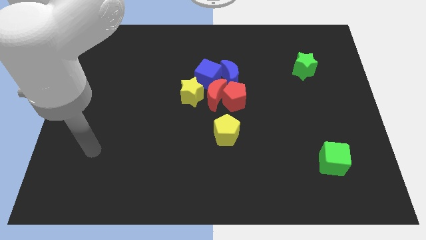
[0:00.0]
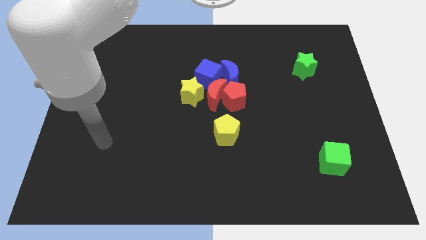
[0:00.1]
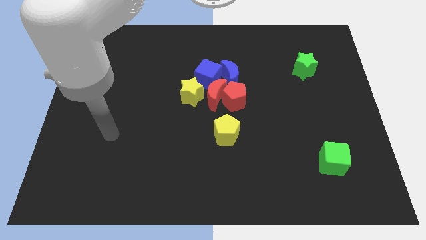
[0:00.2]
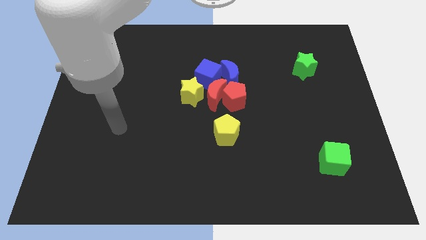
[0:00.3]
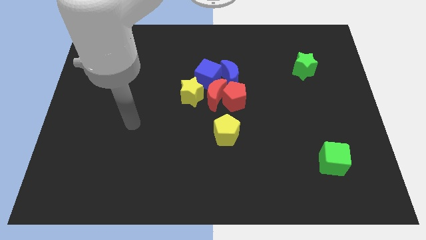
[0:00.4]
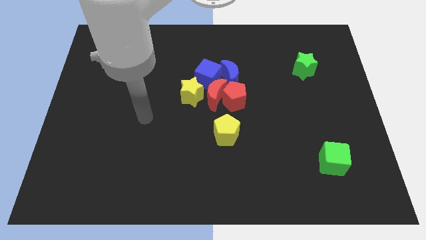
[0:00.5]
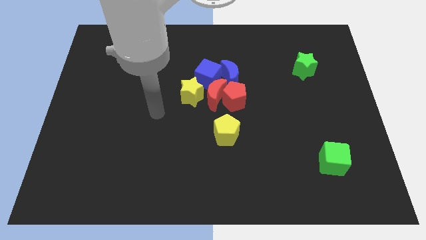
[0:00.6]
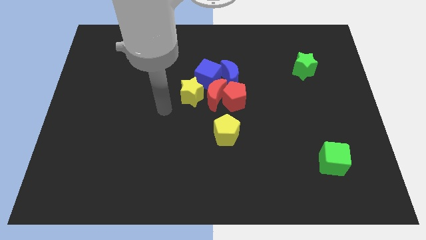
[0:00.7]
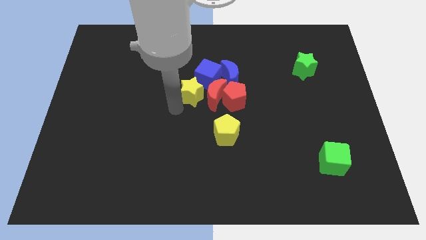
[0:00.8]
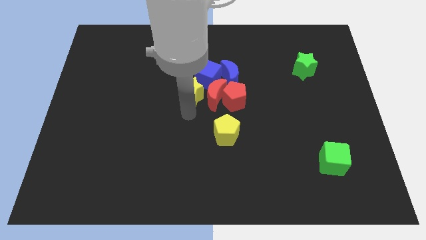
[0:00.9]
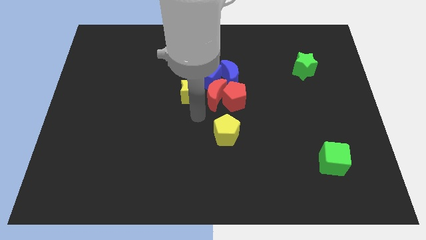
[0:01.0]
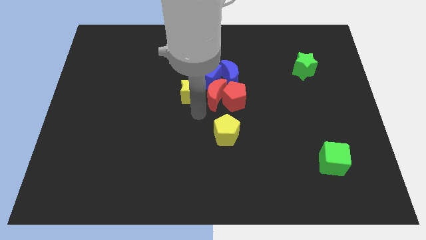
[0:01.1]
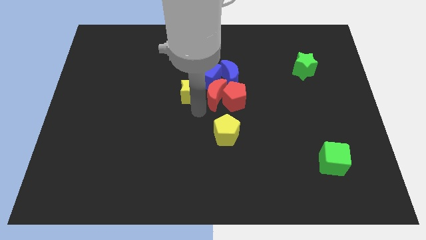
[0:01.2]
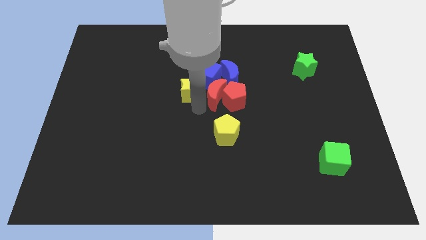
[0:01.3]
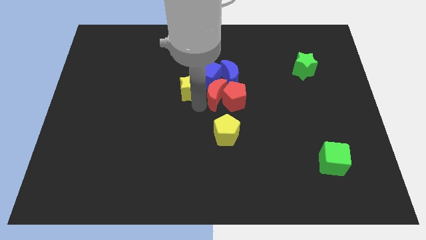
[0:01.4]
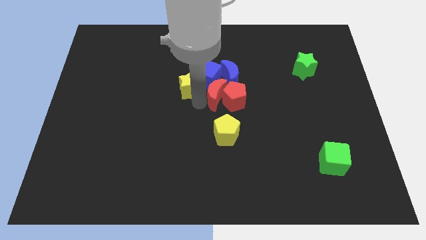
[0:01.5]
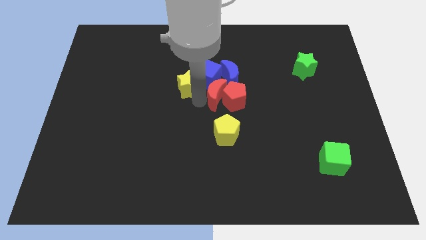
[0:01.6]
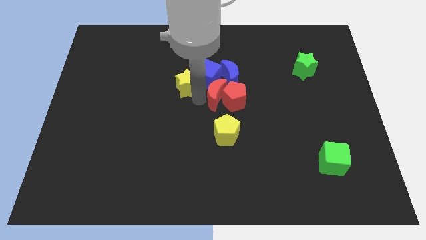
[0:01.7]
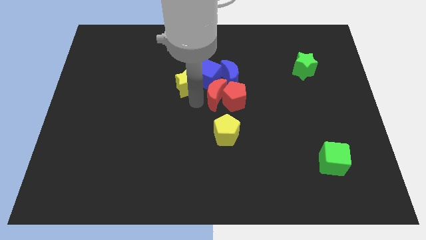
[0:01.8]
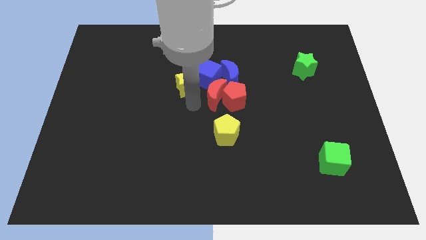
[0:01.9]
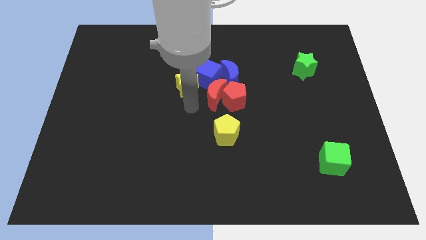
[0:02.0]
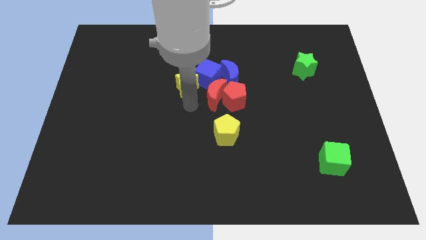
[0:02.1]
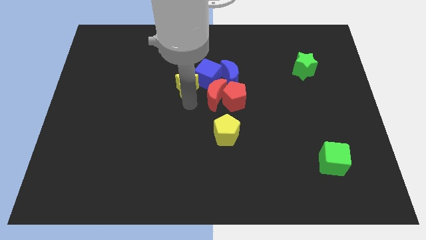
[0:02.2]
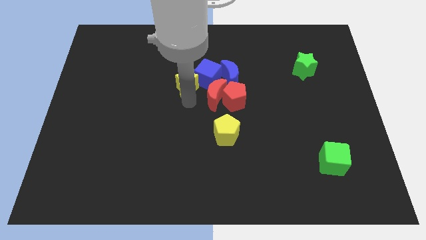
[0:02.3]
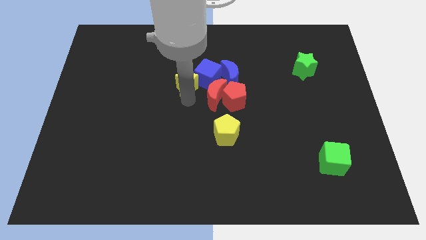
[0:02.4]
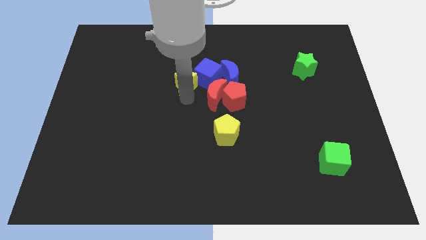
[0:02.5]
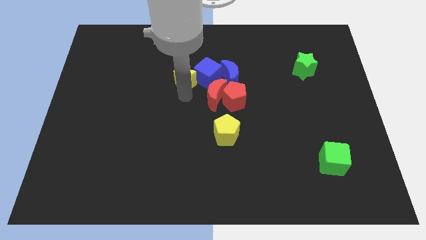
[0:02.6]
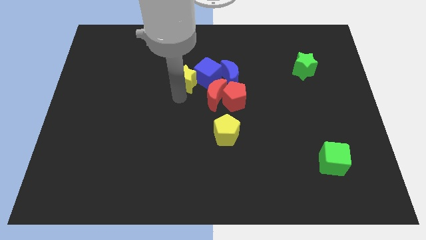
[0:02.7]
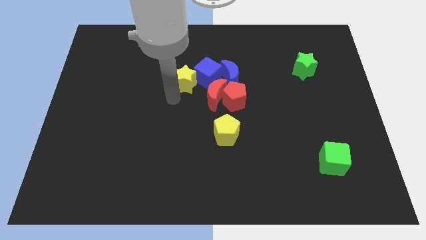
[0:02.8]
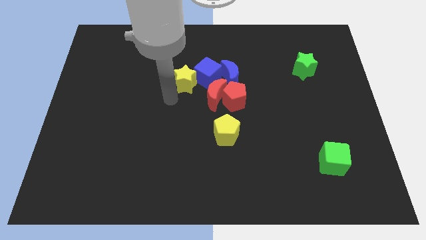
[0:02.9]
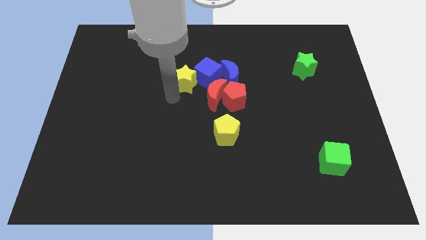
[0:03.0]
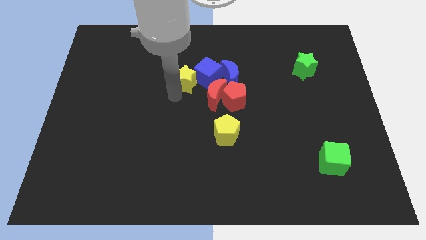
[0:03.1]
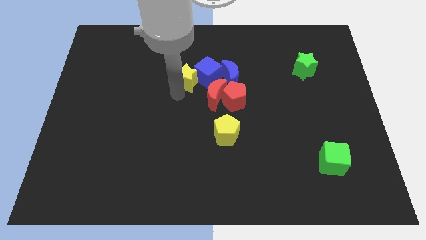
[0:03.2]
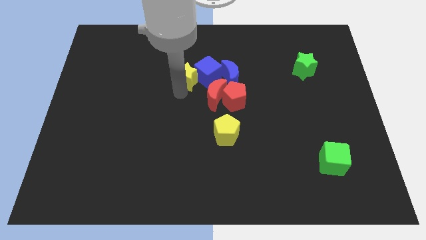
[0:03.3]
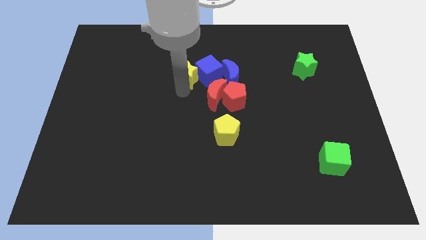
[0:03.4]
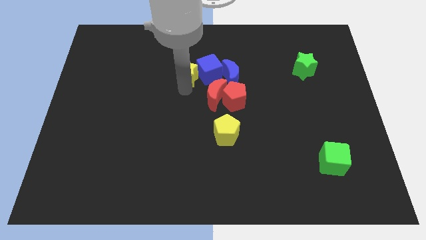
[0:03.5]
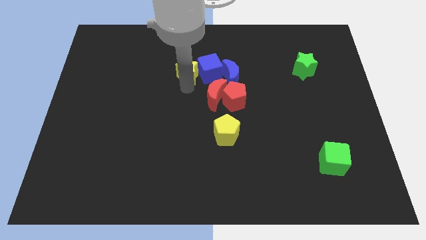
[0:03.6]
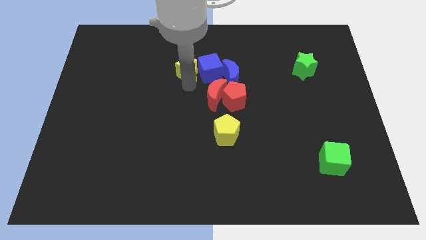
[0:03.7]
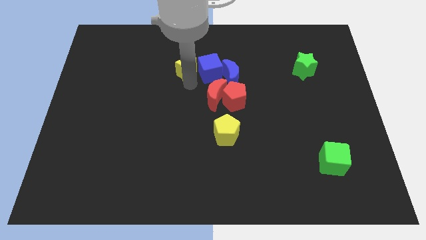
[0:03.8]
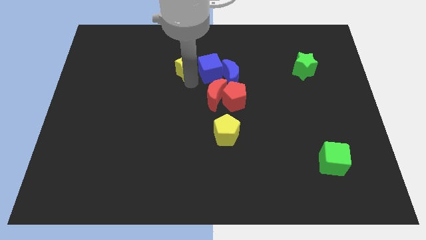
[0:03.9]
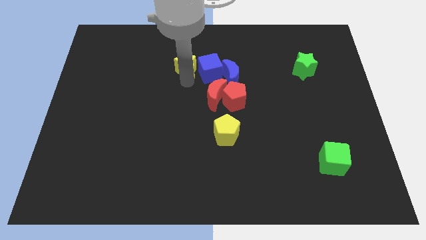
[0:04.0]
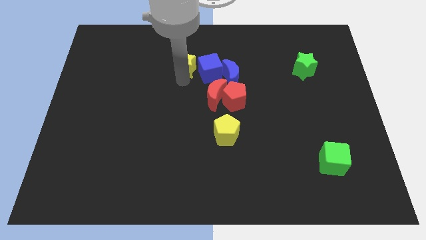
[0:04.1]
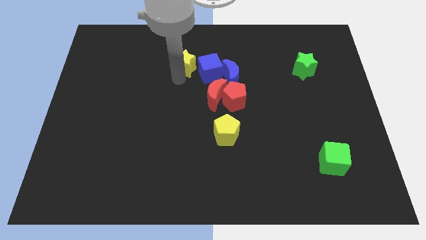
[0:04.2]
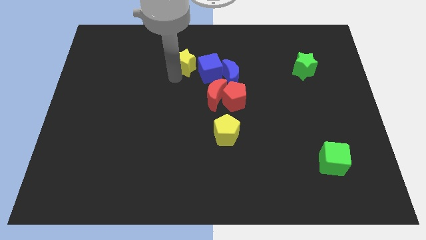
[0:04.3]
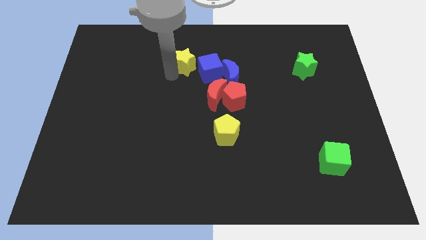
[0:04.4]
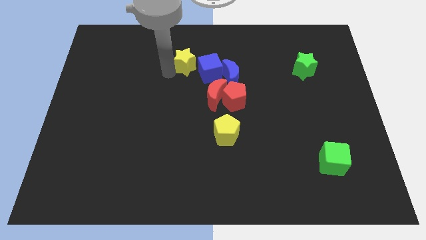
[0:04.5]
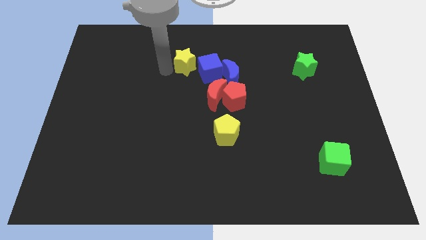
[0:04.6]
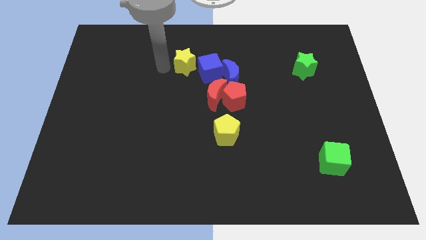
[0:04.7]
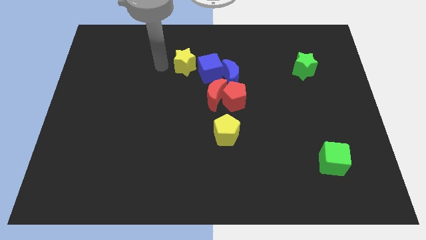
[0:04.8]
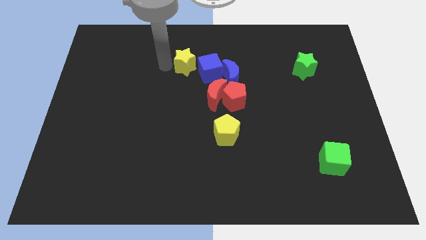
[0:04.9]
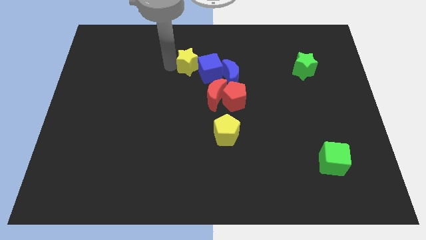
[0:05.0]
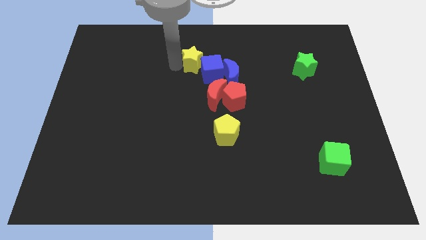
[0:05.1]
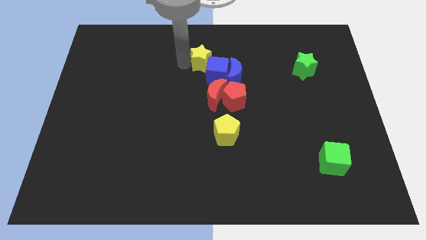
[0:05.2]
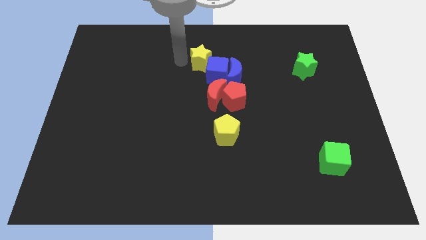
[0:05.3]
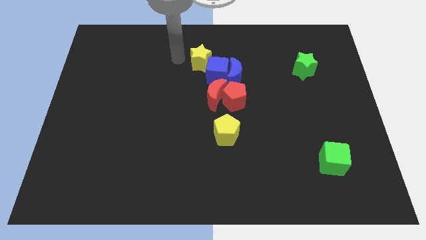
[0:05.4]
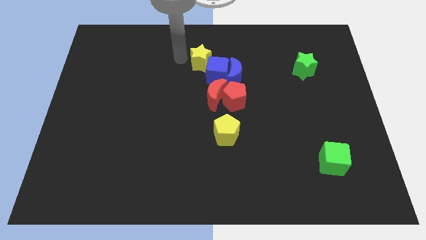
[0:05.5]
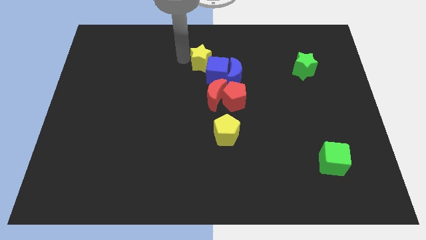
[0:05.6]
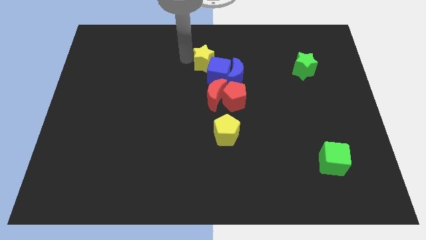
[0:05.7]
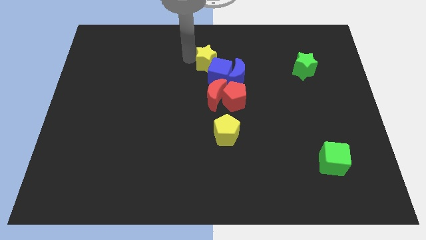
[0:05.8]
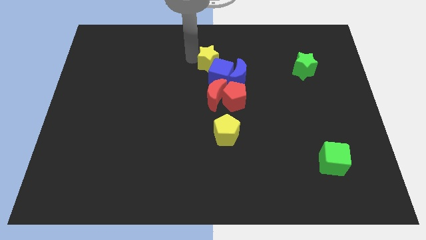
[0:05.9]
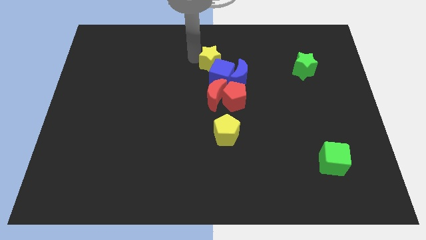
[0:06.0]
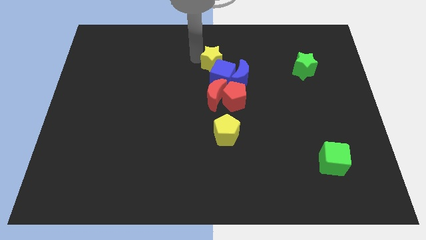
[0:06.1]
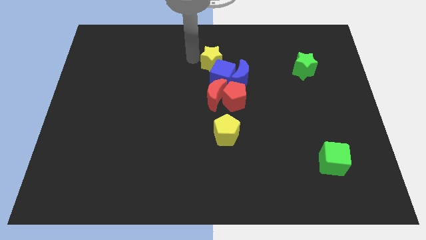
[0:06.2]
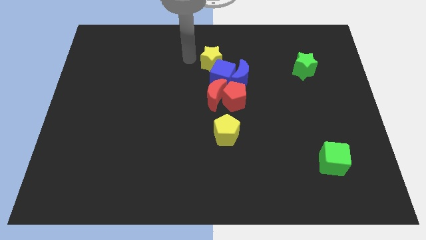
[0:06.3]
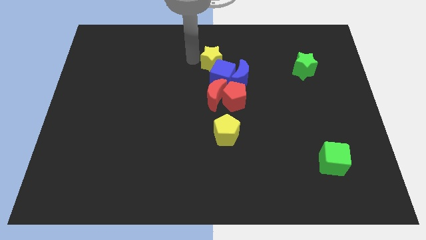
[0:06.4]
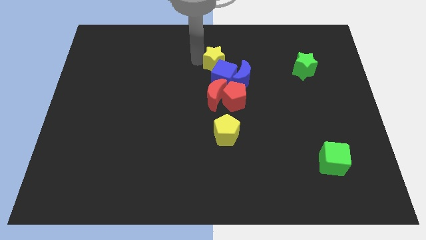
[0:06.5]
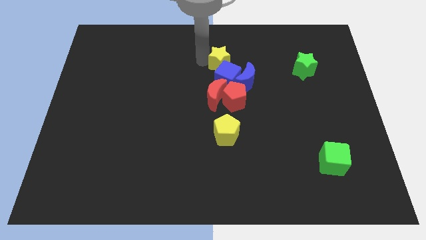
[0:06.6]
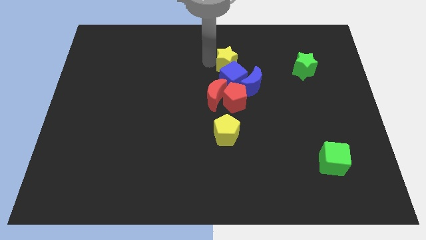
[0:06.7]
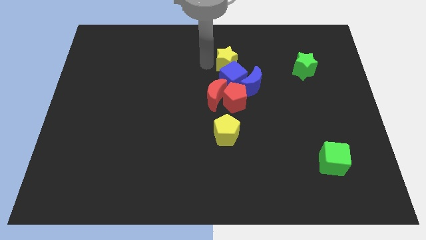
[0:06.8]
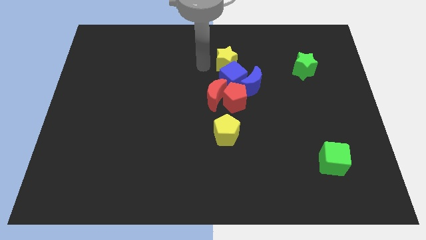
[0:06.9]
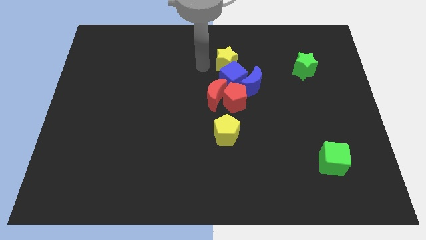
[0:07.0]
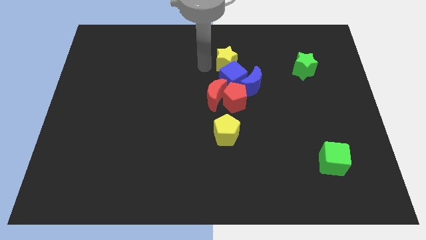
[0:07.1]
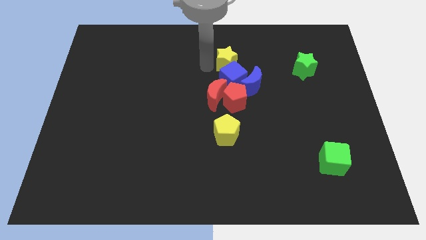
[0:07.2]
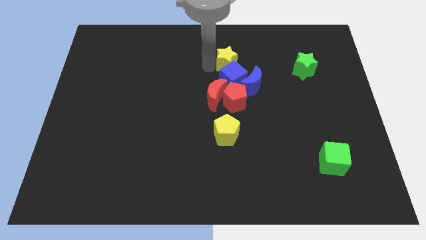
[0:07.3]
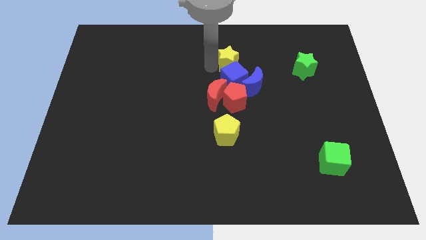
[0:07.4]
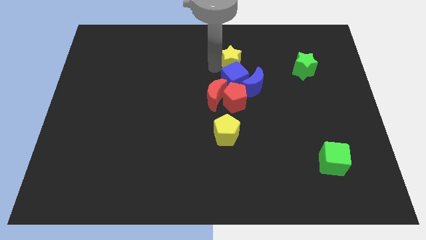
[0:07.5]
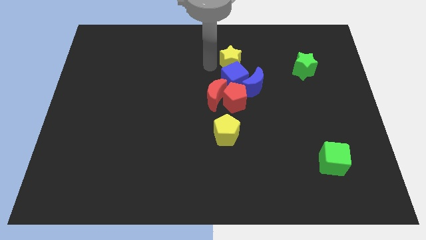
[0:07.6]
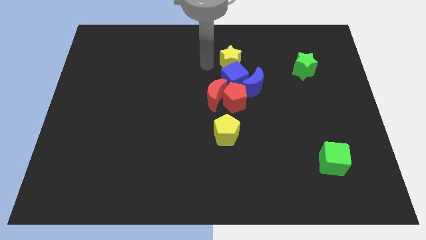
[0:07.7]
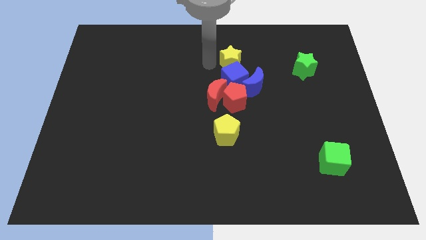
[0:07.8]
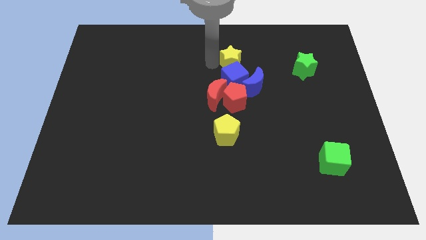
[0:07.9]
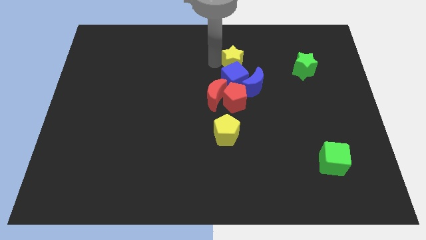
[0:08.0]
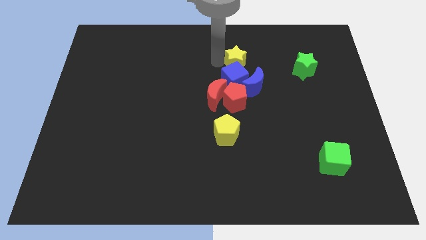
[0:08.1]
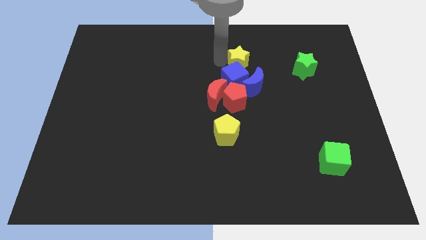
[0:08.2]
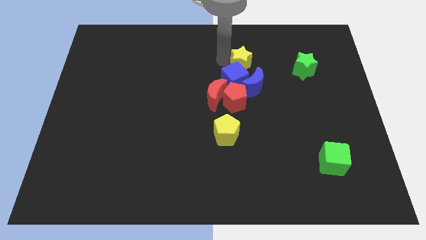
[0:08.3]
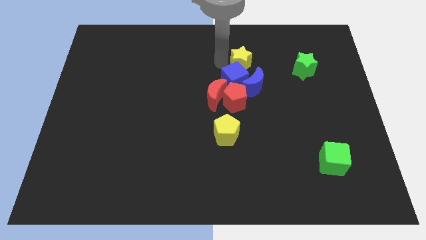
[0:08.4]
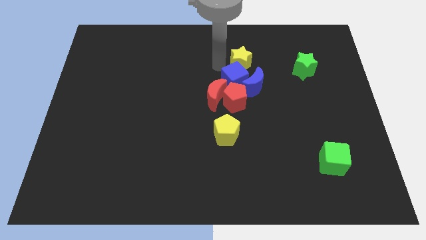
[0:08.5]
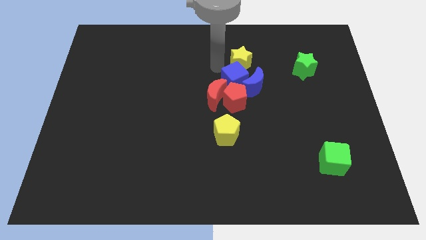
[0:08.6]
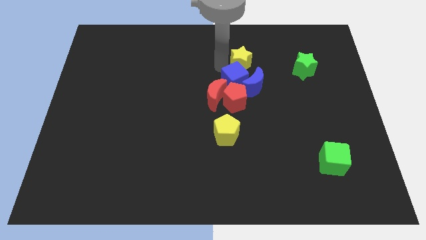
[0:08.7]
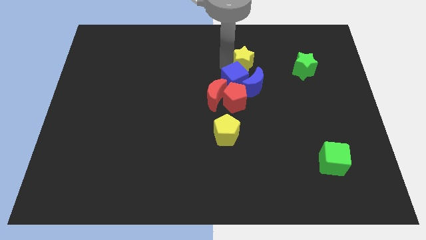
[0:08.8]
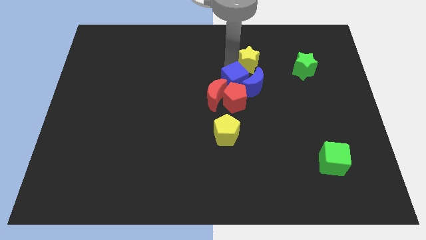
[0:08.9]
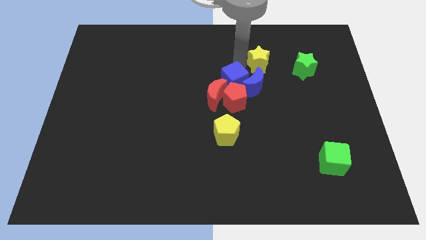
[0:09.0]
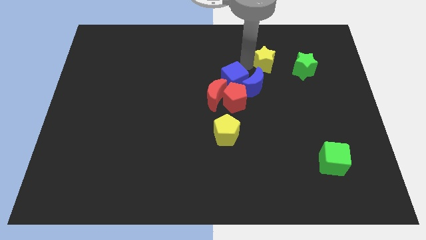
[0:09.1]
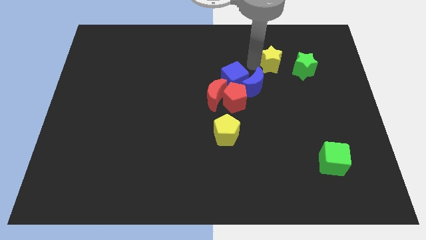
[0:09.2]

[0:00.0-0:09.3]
slide the yellow star to the top left of the green star
